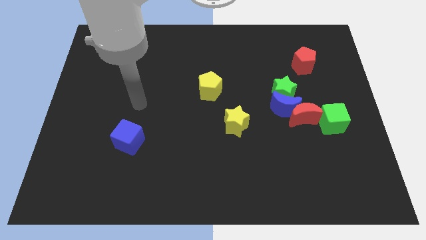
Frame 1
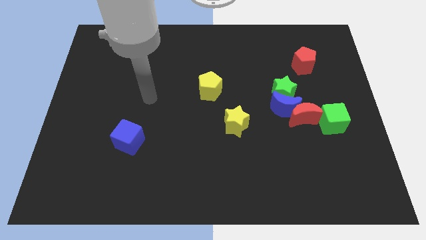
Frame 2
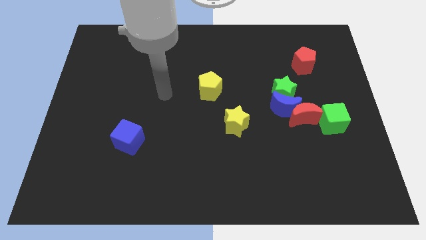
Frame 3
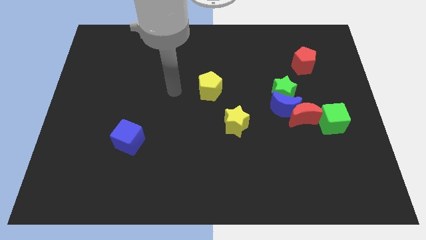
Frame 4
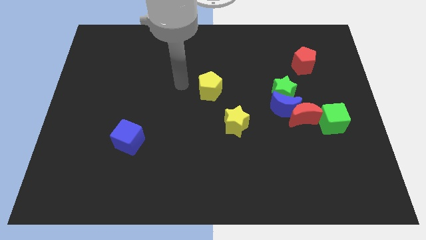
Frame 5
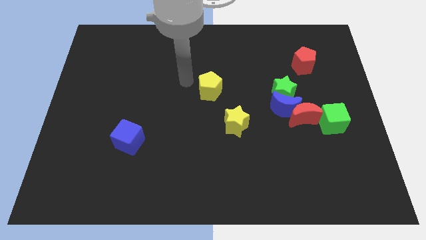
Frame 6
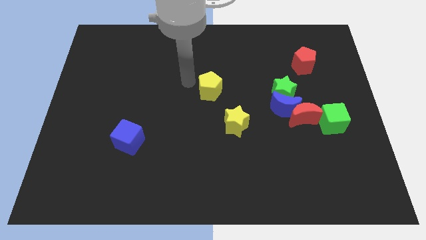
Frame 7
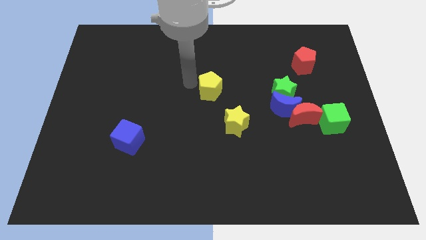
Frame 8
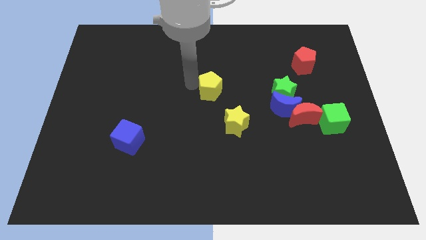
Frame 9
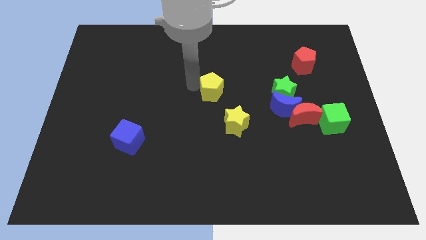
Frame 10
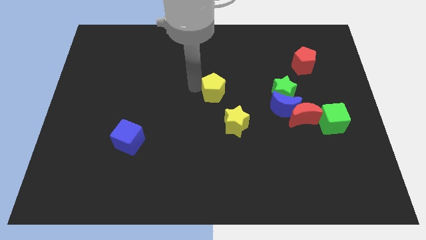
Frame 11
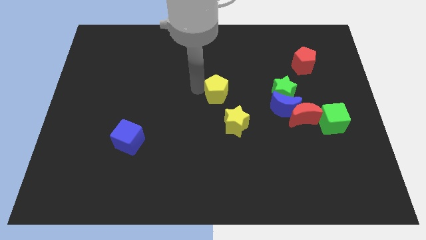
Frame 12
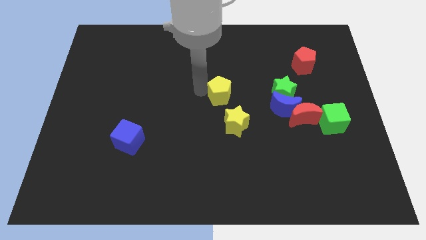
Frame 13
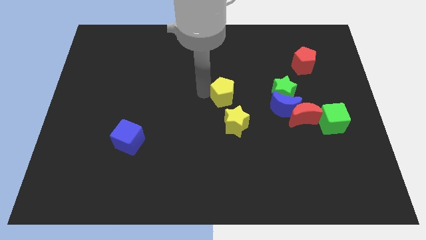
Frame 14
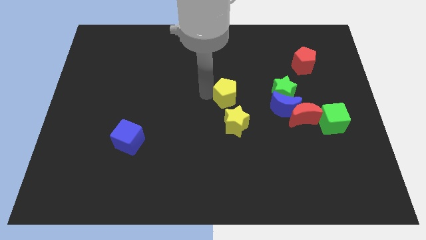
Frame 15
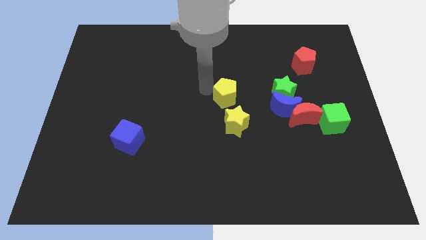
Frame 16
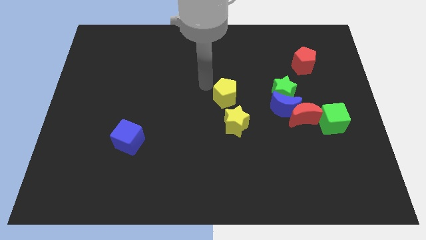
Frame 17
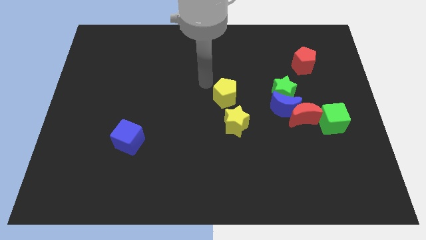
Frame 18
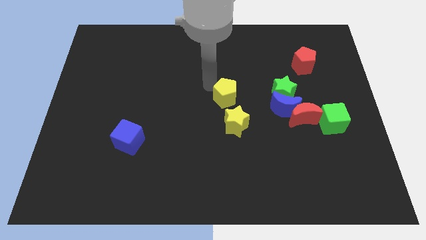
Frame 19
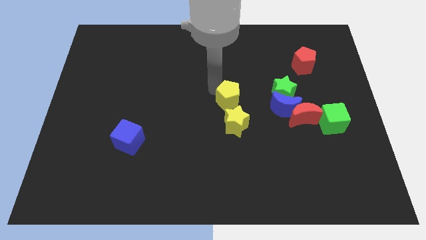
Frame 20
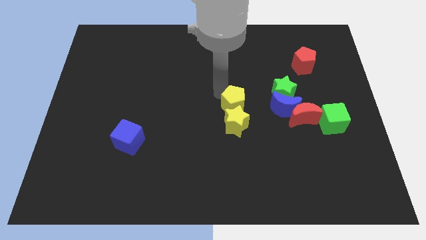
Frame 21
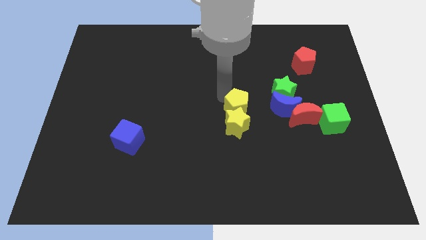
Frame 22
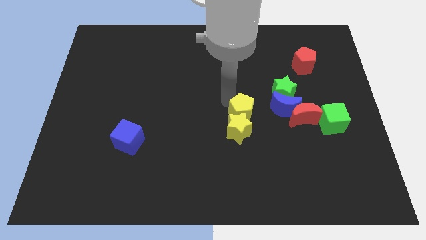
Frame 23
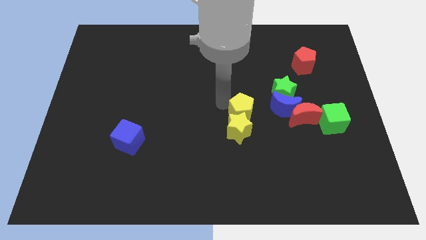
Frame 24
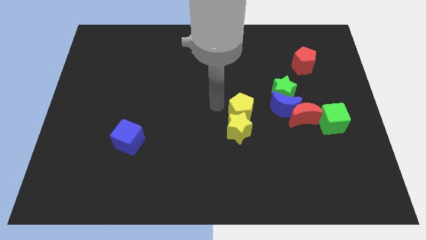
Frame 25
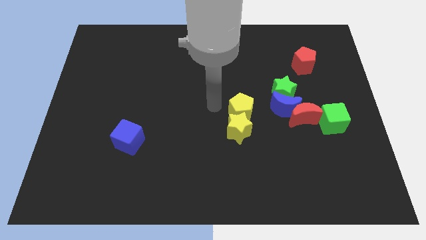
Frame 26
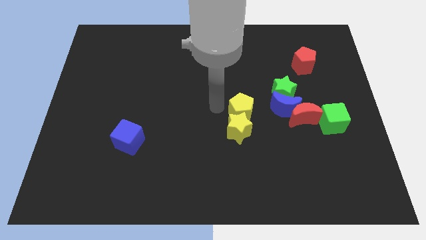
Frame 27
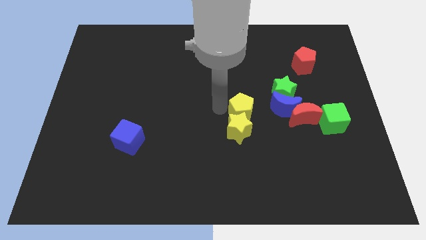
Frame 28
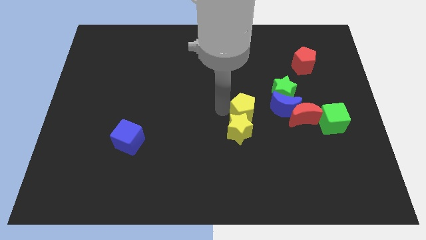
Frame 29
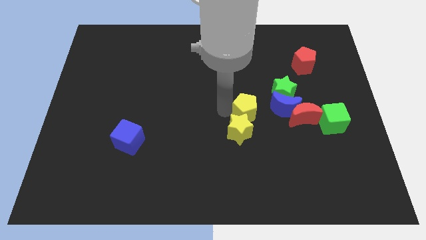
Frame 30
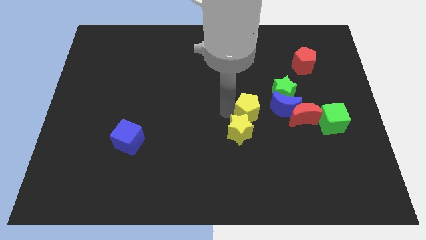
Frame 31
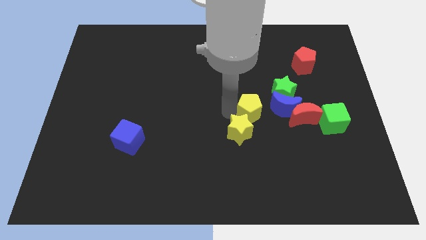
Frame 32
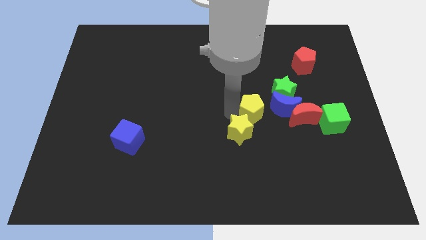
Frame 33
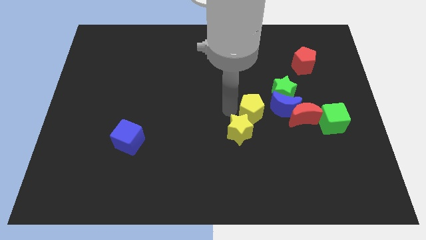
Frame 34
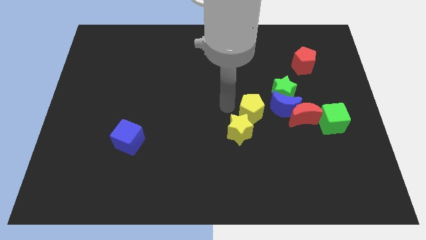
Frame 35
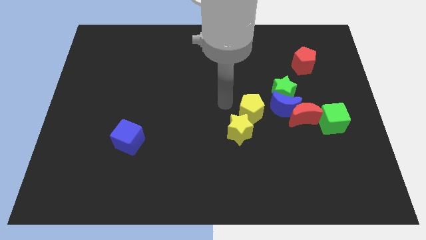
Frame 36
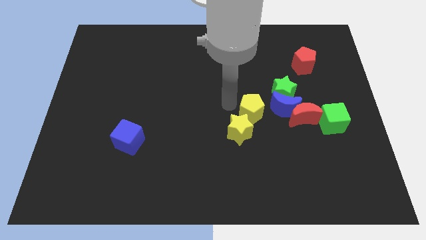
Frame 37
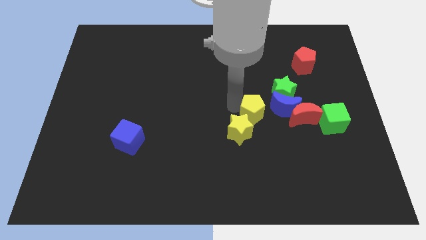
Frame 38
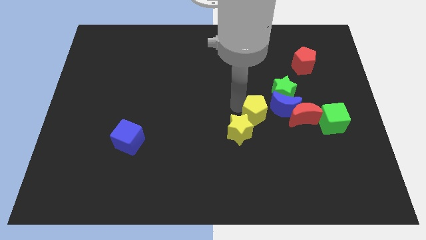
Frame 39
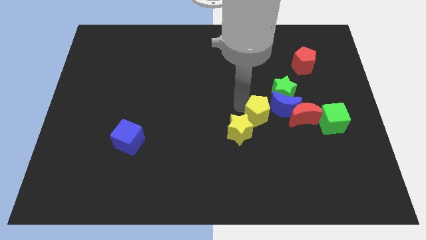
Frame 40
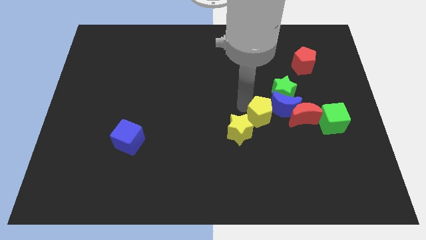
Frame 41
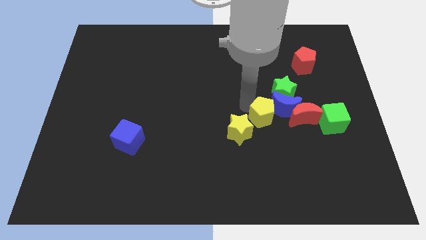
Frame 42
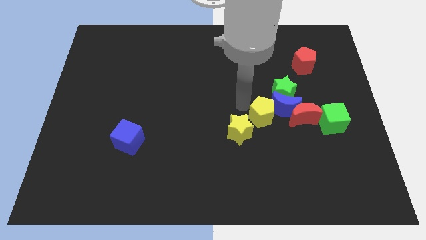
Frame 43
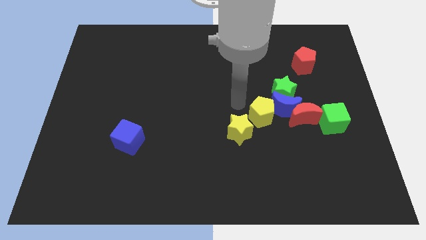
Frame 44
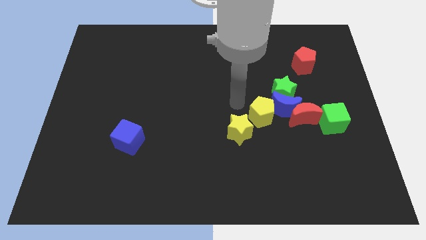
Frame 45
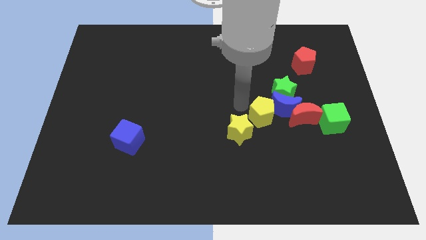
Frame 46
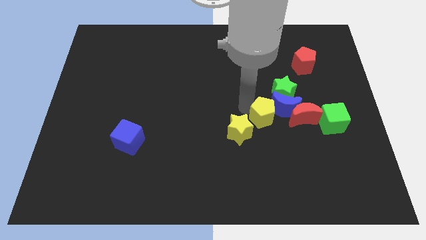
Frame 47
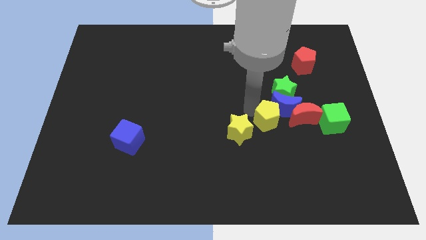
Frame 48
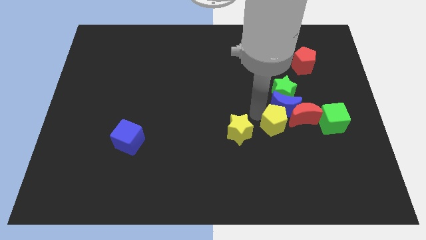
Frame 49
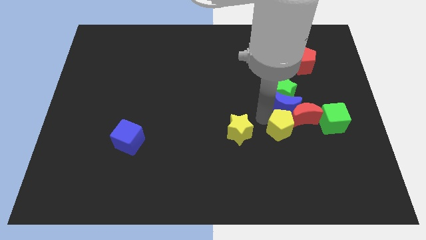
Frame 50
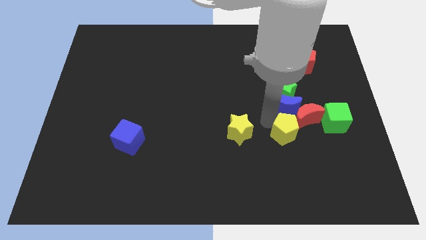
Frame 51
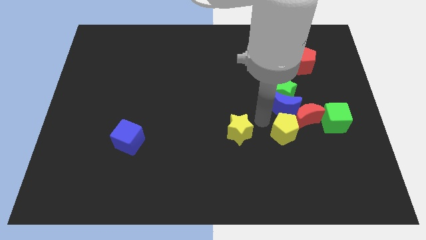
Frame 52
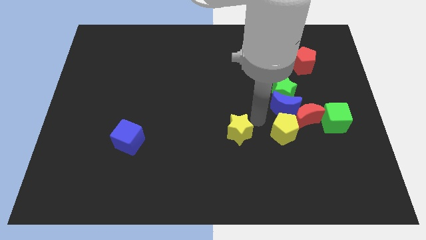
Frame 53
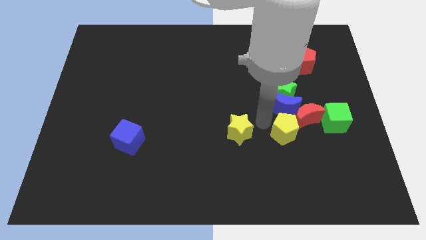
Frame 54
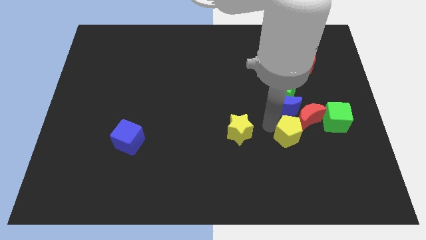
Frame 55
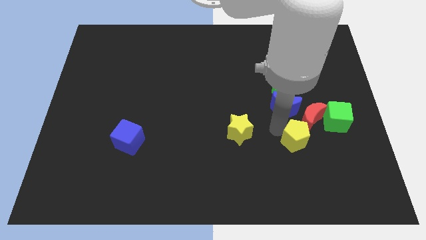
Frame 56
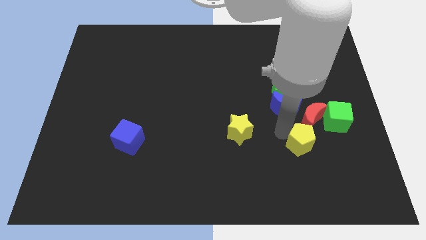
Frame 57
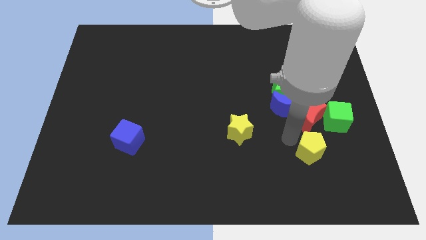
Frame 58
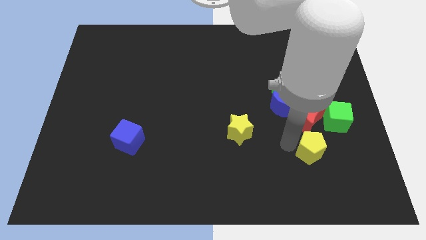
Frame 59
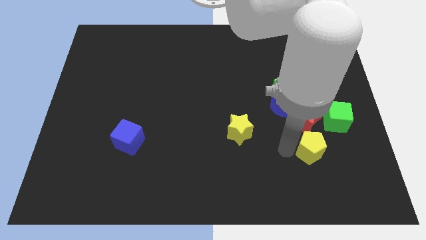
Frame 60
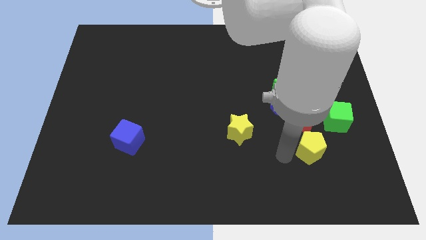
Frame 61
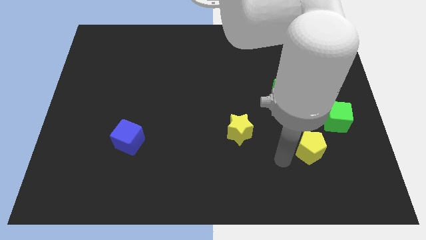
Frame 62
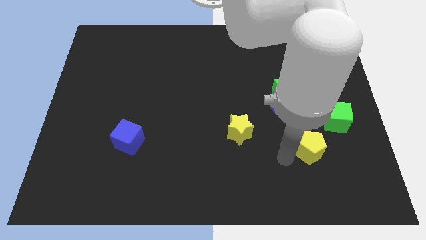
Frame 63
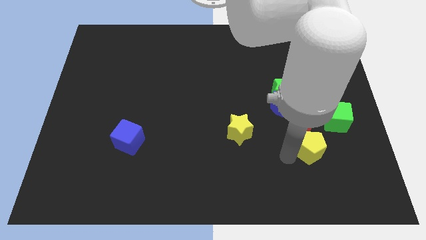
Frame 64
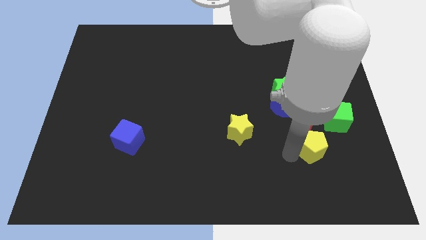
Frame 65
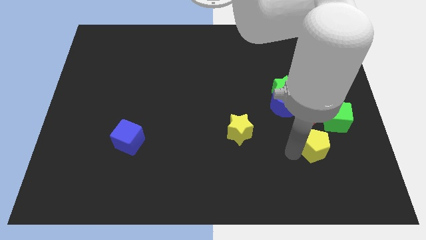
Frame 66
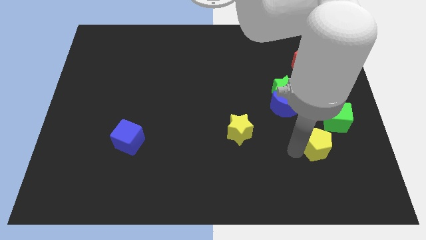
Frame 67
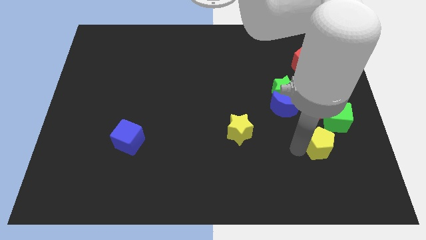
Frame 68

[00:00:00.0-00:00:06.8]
move the yellow pentagon to the bottom right of the red moon

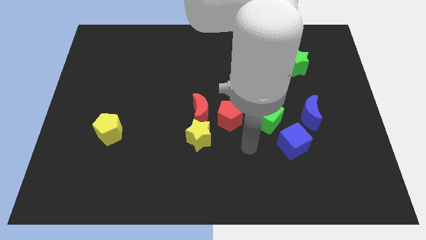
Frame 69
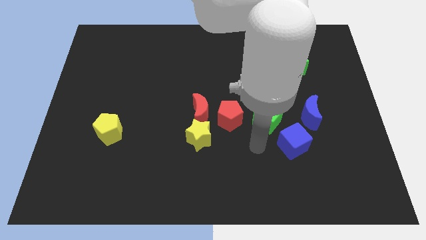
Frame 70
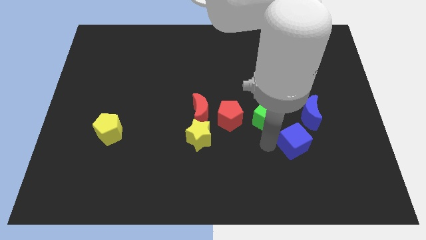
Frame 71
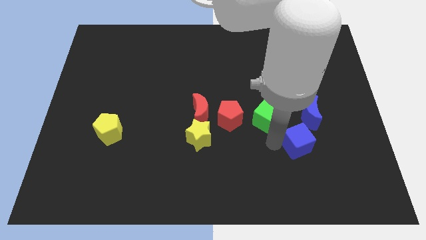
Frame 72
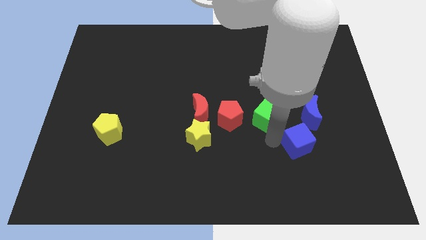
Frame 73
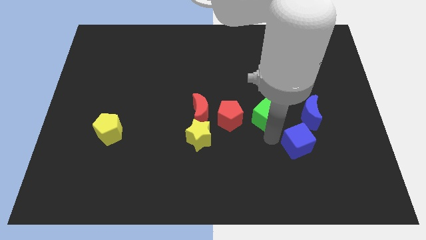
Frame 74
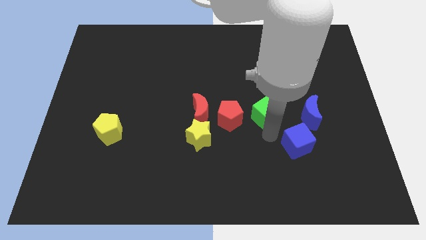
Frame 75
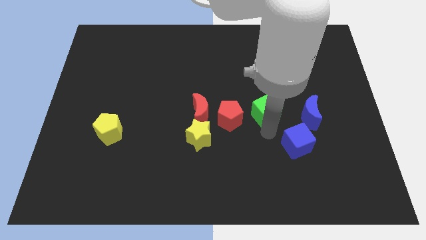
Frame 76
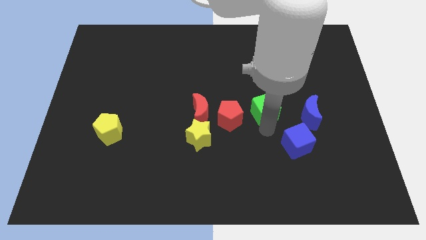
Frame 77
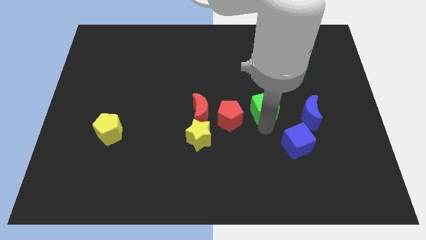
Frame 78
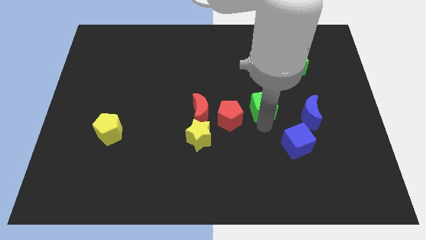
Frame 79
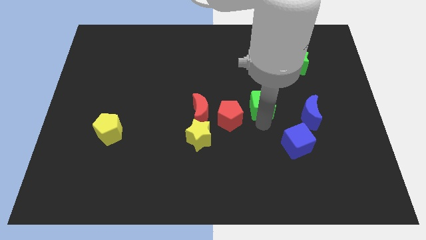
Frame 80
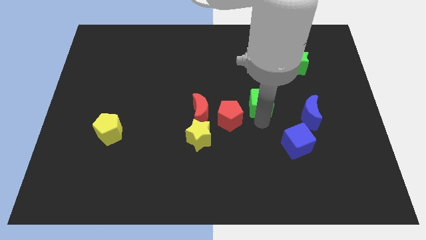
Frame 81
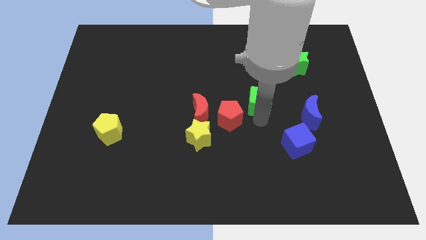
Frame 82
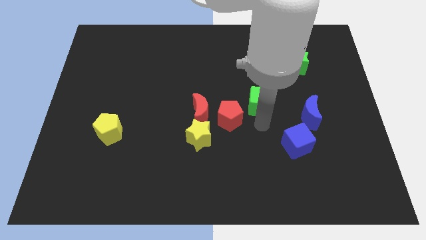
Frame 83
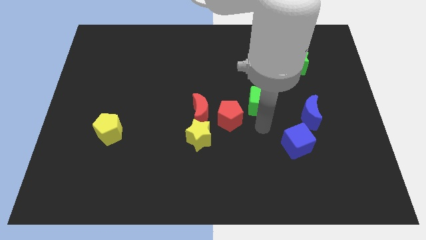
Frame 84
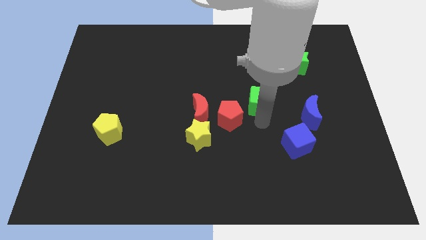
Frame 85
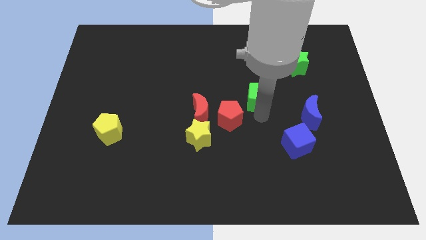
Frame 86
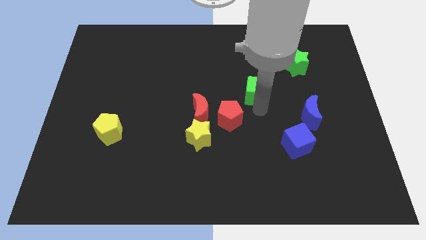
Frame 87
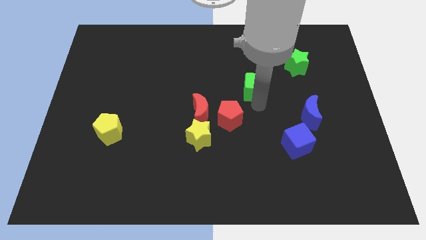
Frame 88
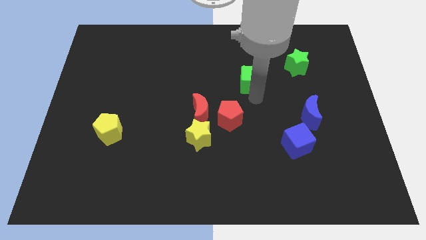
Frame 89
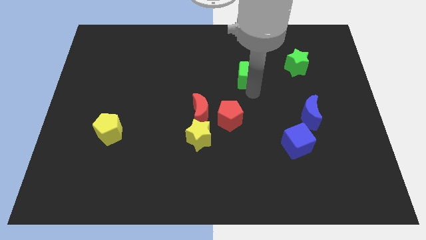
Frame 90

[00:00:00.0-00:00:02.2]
push the green cube to the left side of the green star
